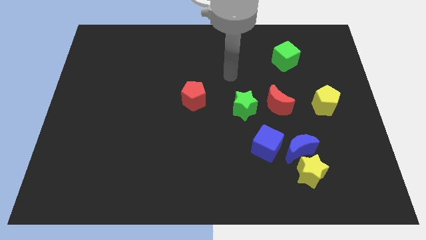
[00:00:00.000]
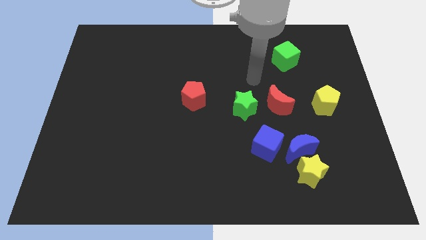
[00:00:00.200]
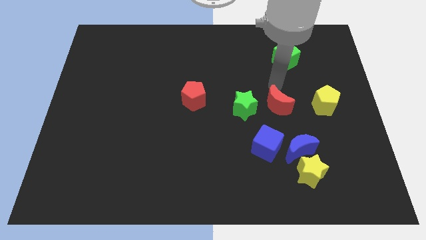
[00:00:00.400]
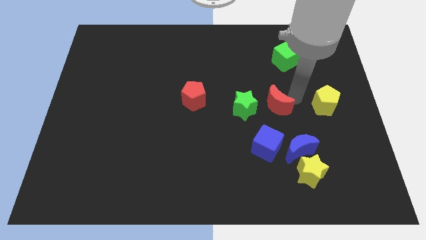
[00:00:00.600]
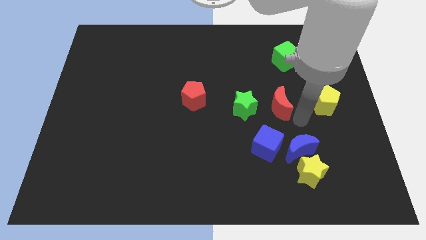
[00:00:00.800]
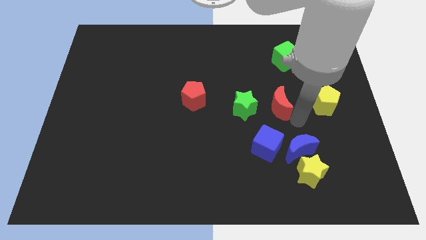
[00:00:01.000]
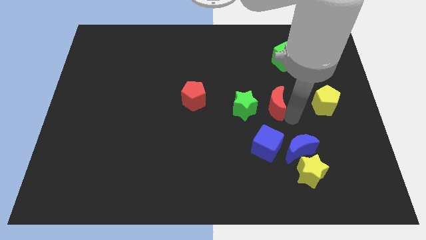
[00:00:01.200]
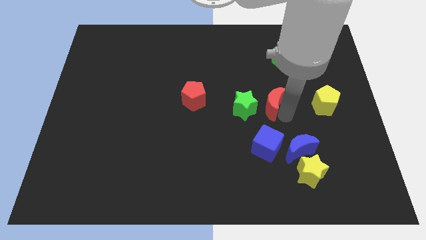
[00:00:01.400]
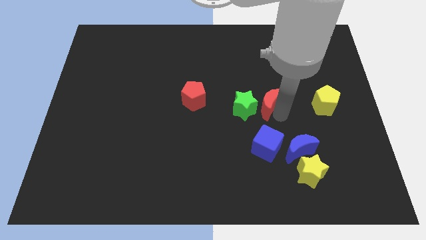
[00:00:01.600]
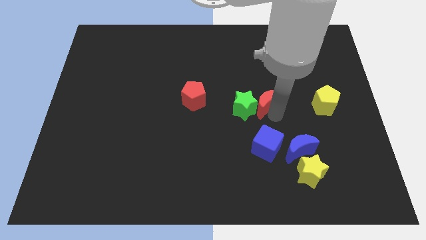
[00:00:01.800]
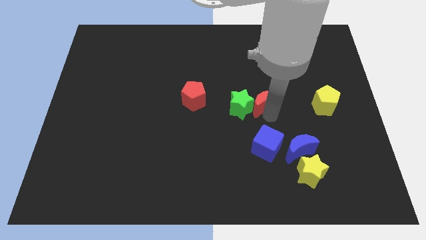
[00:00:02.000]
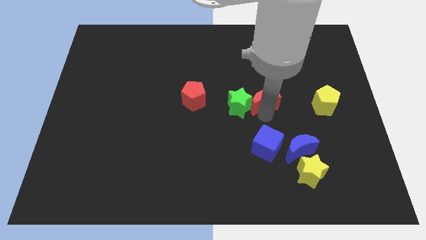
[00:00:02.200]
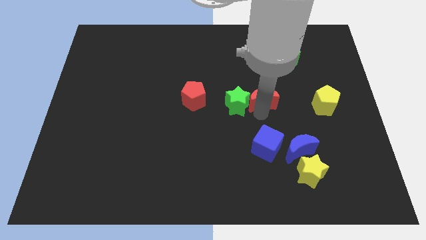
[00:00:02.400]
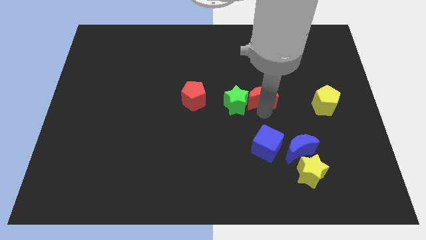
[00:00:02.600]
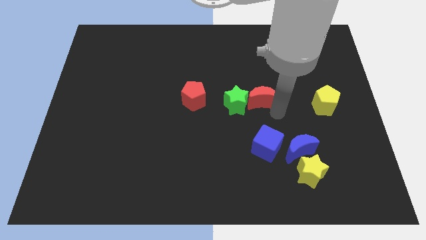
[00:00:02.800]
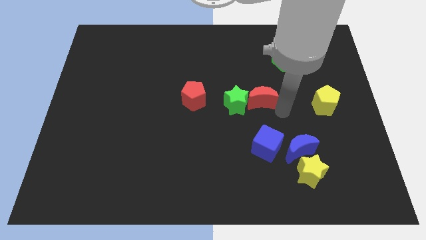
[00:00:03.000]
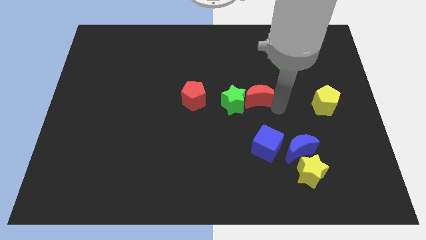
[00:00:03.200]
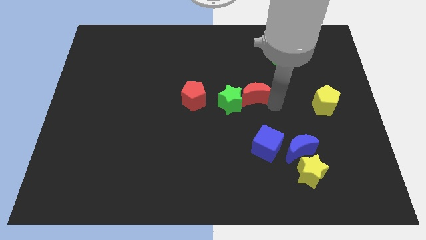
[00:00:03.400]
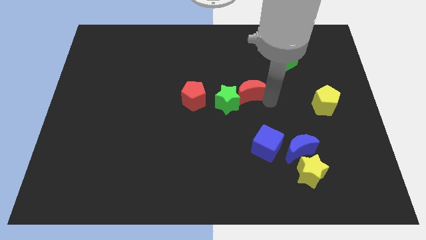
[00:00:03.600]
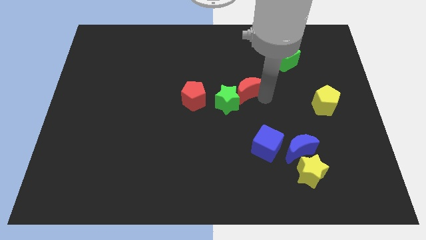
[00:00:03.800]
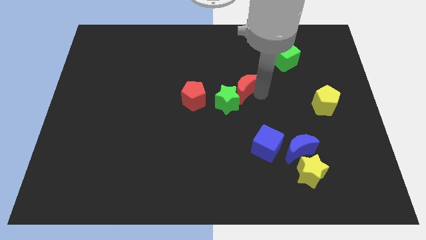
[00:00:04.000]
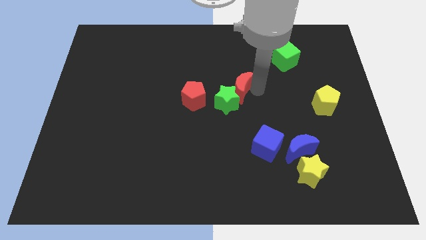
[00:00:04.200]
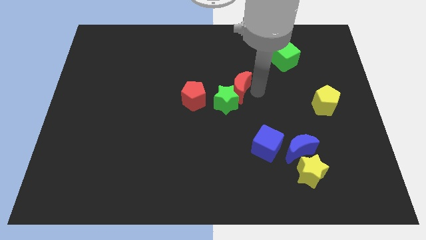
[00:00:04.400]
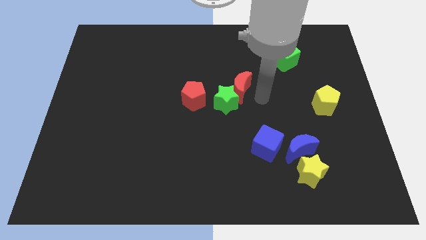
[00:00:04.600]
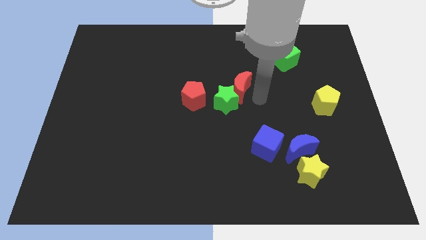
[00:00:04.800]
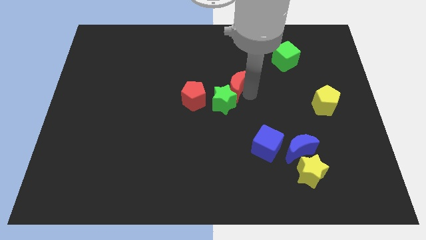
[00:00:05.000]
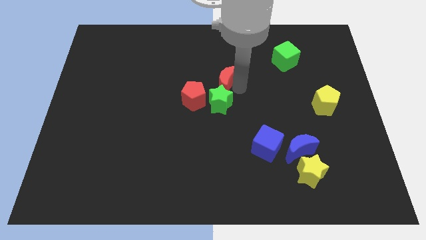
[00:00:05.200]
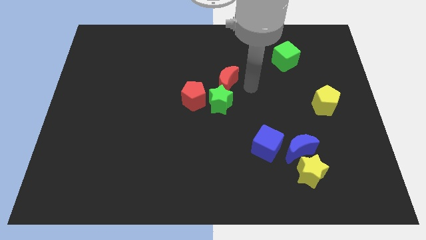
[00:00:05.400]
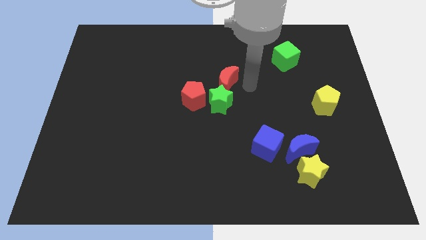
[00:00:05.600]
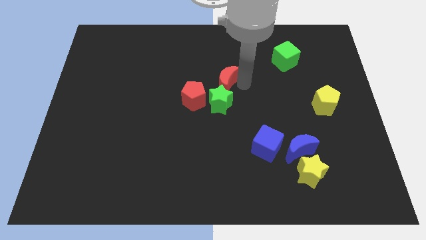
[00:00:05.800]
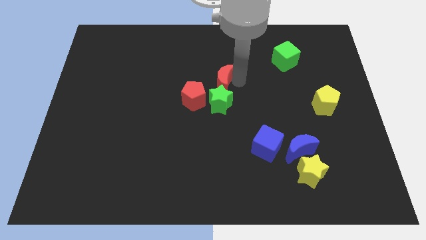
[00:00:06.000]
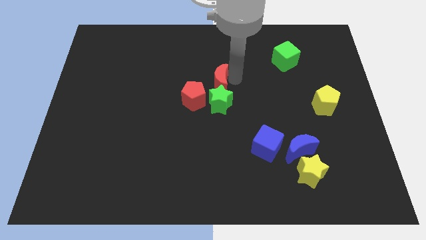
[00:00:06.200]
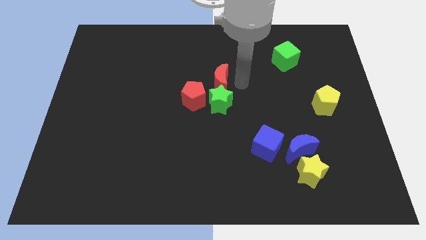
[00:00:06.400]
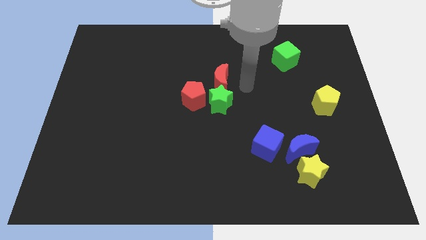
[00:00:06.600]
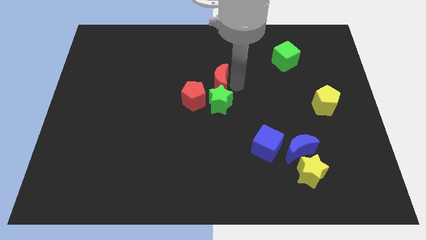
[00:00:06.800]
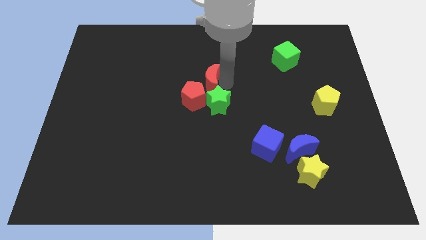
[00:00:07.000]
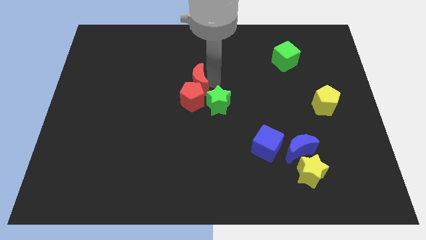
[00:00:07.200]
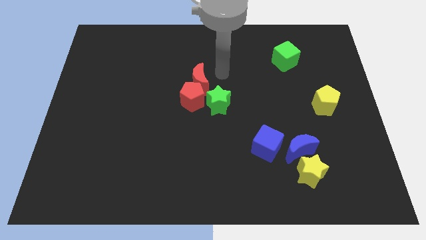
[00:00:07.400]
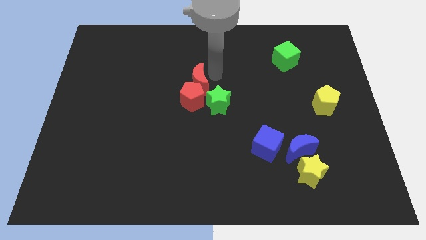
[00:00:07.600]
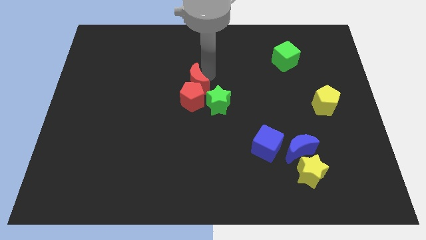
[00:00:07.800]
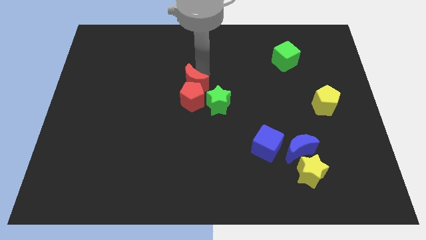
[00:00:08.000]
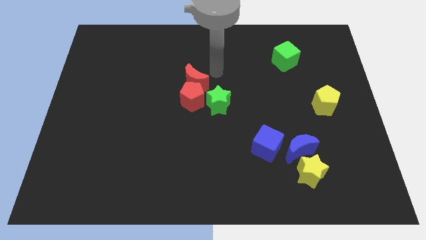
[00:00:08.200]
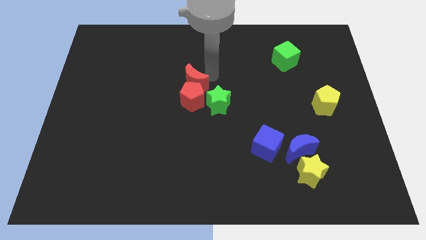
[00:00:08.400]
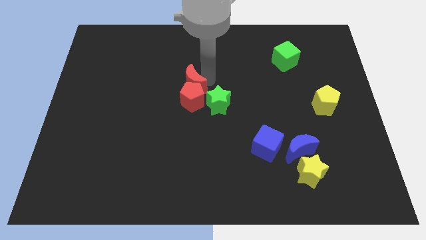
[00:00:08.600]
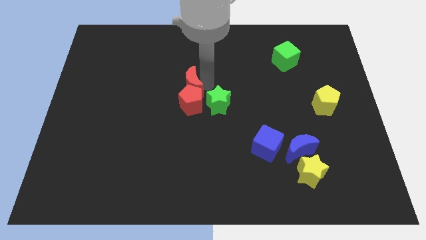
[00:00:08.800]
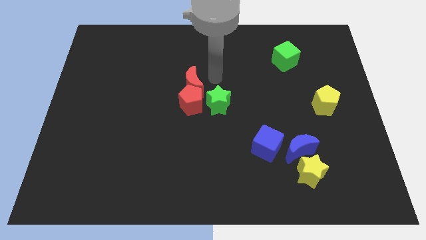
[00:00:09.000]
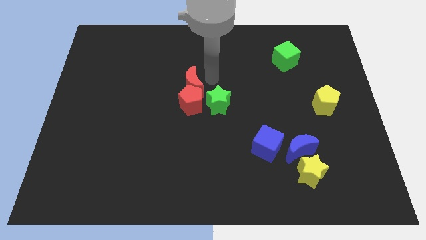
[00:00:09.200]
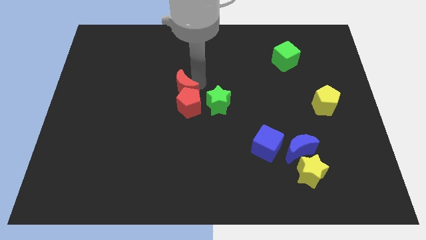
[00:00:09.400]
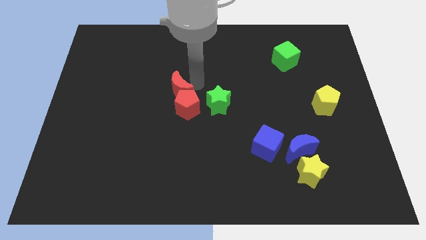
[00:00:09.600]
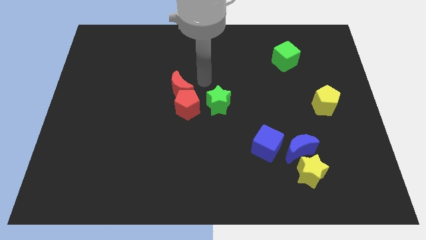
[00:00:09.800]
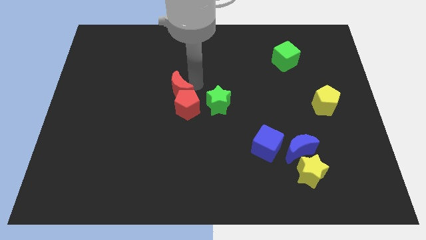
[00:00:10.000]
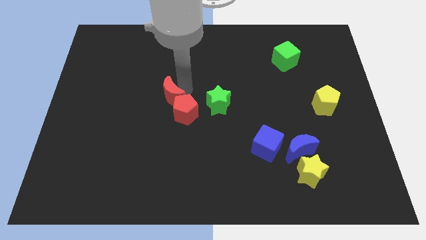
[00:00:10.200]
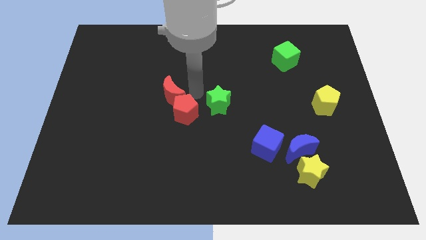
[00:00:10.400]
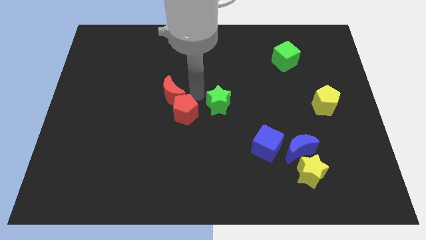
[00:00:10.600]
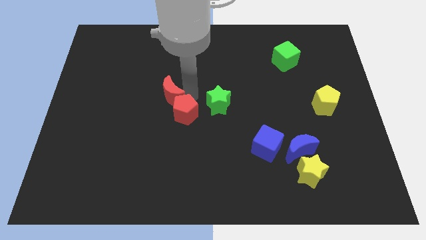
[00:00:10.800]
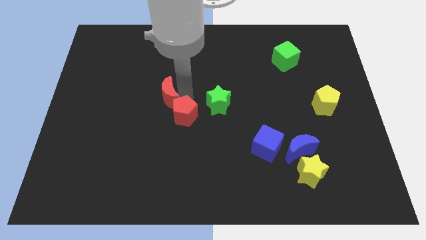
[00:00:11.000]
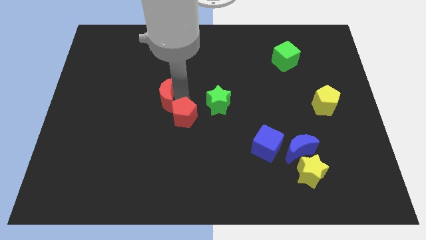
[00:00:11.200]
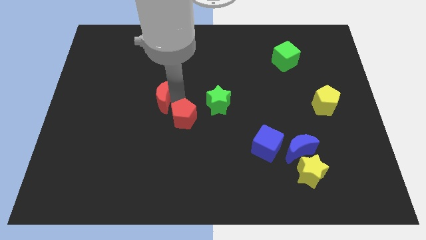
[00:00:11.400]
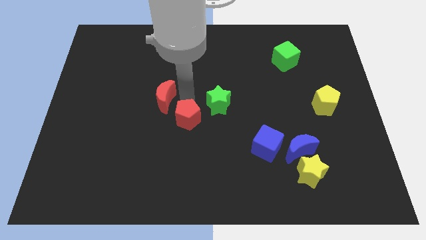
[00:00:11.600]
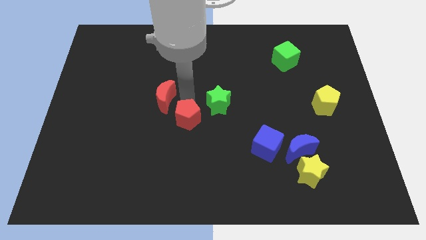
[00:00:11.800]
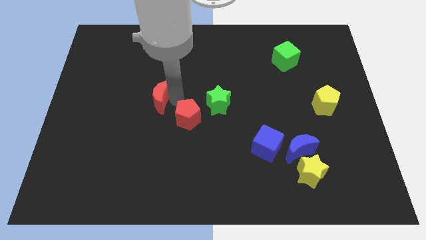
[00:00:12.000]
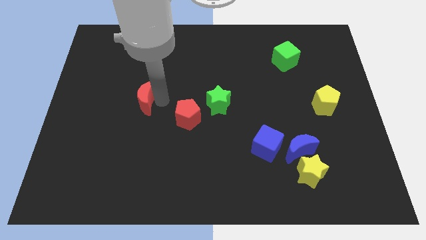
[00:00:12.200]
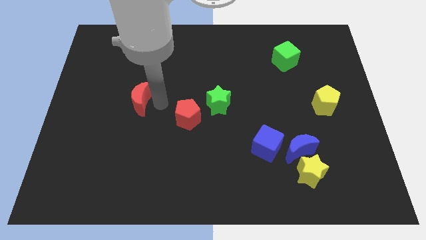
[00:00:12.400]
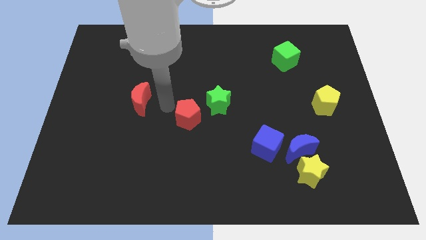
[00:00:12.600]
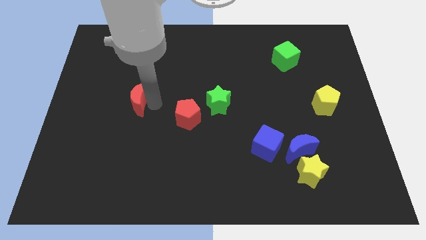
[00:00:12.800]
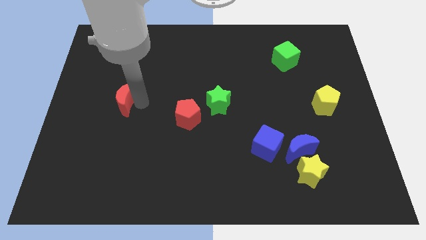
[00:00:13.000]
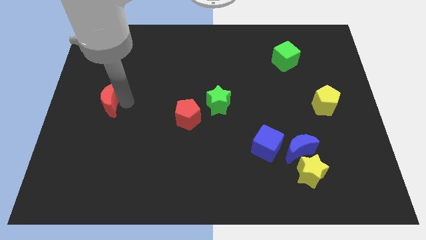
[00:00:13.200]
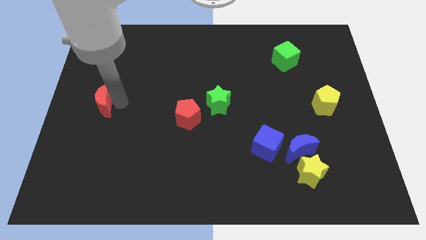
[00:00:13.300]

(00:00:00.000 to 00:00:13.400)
put the red moon to the left side
